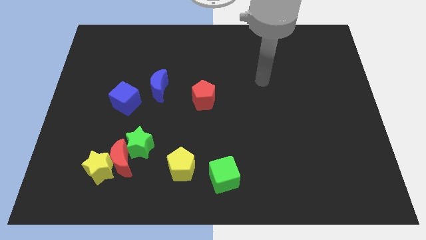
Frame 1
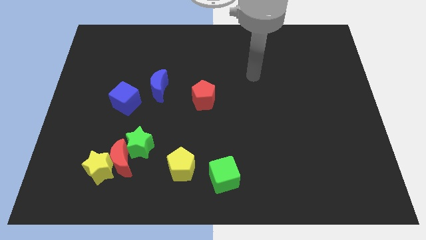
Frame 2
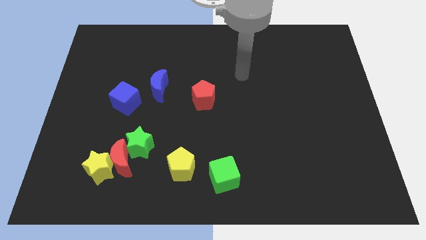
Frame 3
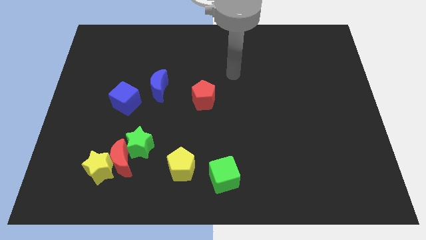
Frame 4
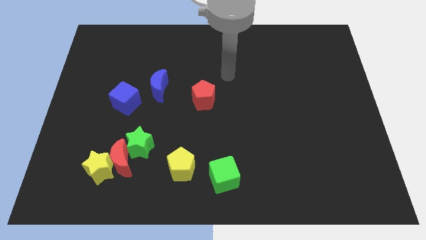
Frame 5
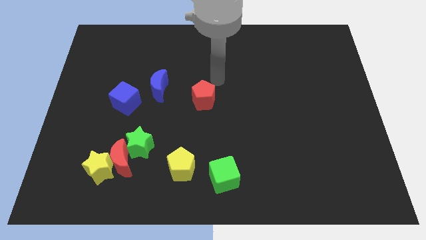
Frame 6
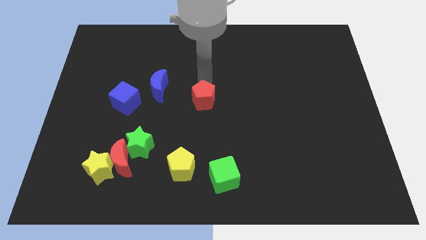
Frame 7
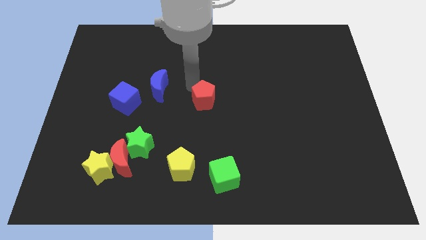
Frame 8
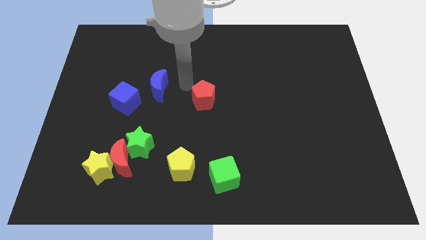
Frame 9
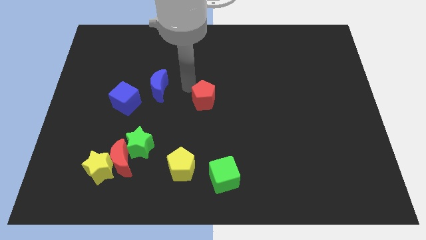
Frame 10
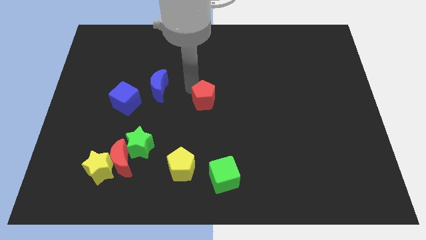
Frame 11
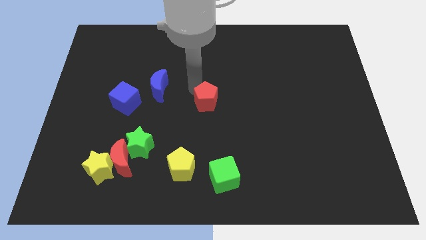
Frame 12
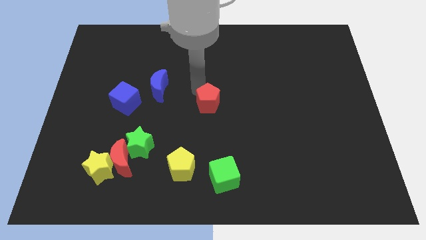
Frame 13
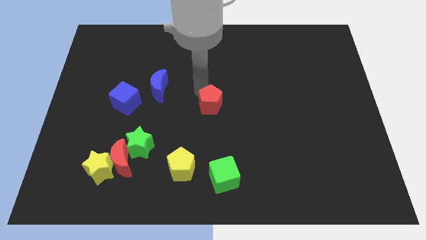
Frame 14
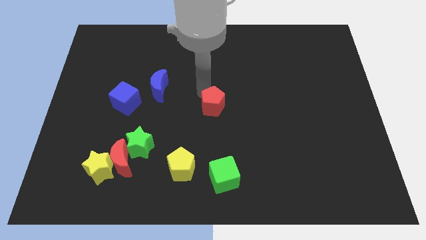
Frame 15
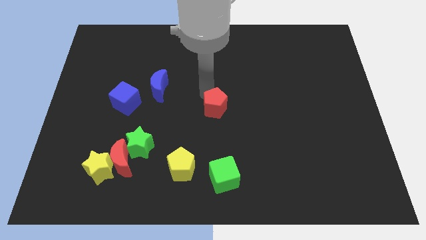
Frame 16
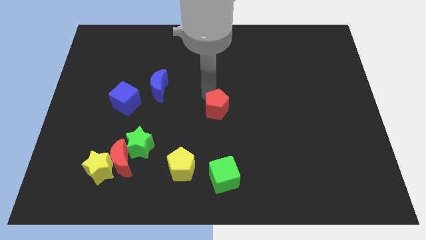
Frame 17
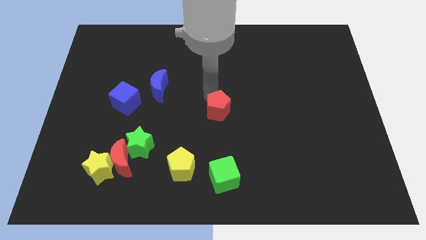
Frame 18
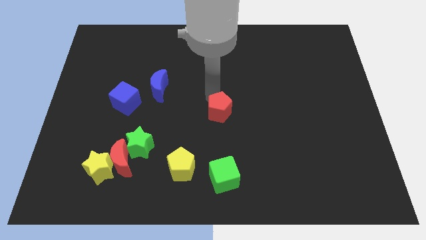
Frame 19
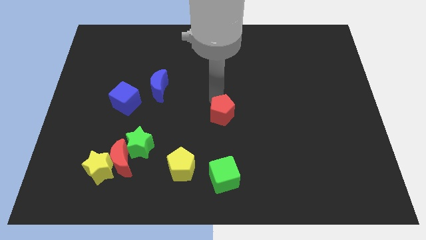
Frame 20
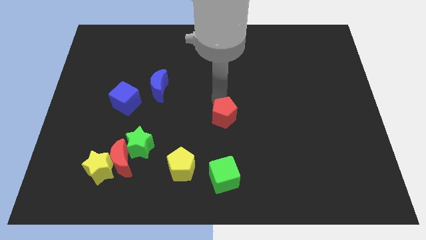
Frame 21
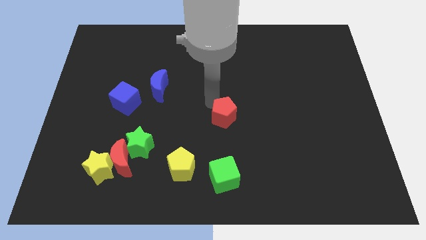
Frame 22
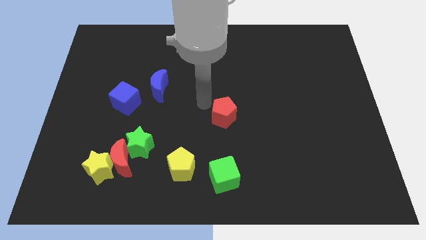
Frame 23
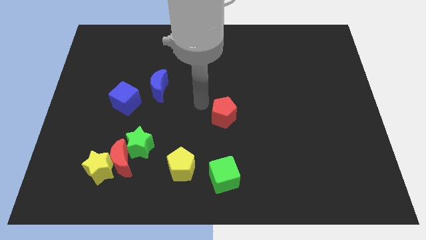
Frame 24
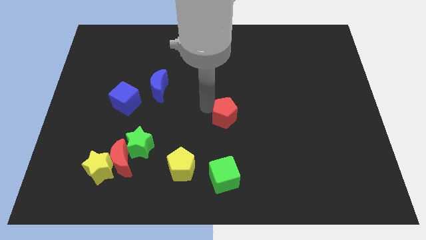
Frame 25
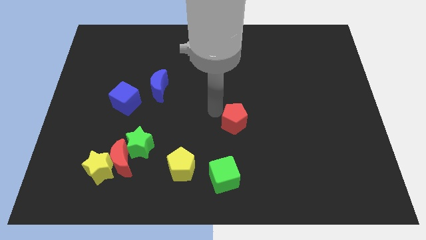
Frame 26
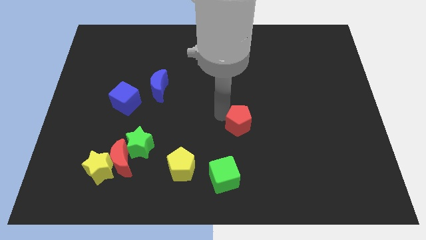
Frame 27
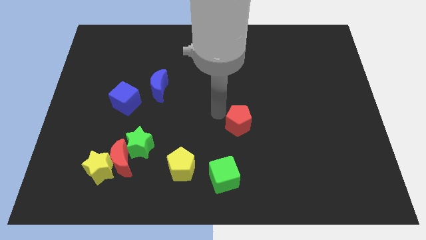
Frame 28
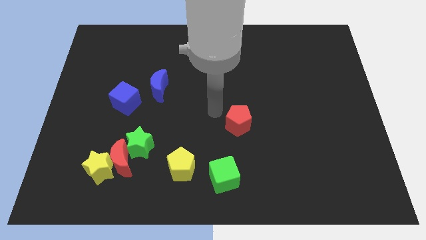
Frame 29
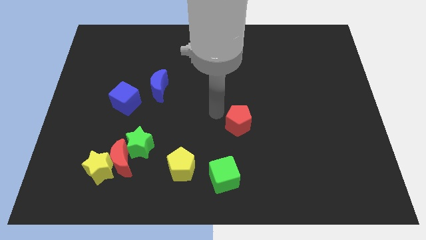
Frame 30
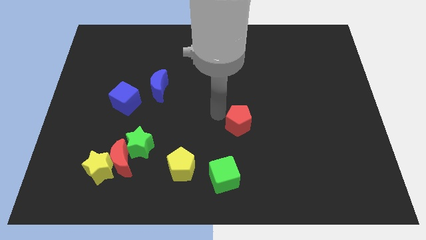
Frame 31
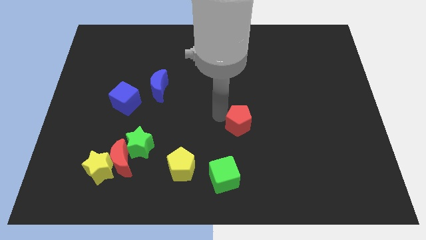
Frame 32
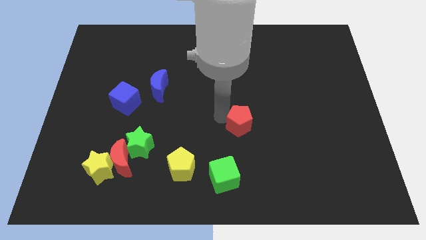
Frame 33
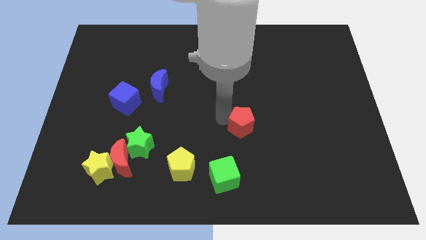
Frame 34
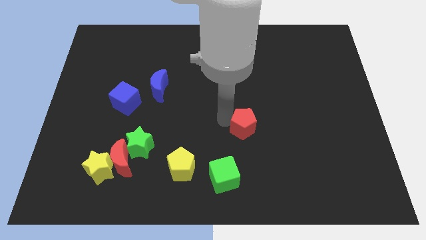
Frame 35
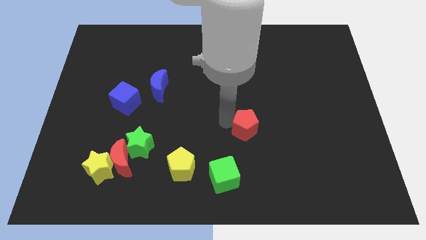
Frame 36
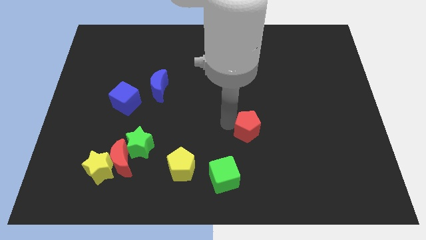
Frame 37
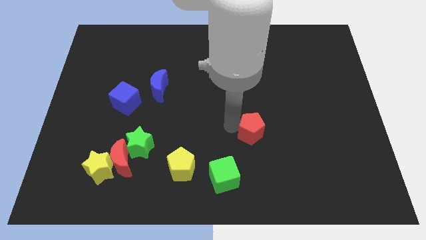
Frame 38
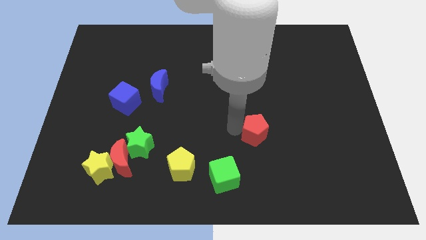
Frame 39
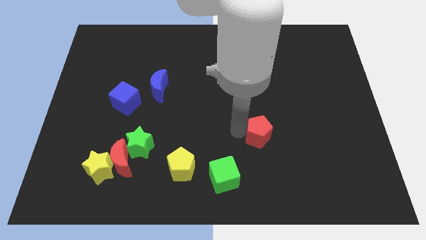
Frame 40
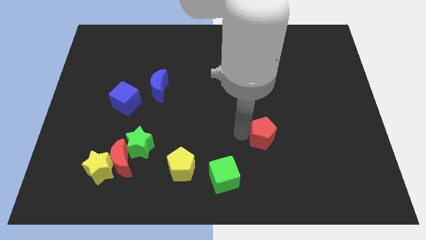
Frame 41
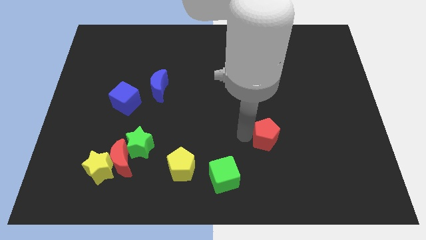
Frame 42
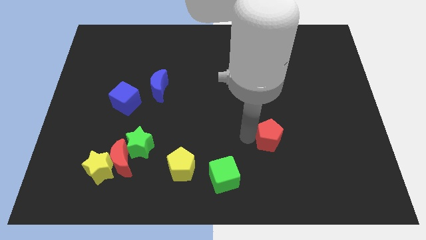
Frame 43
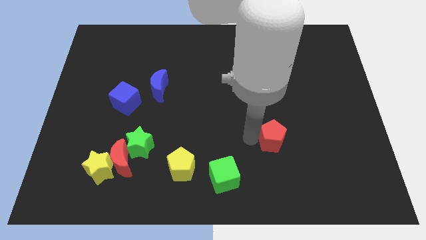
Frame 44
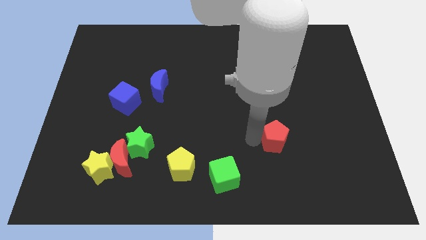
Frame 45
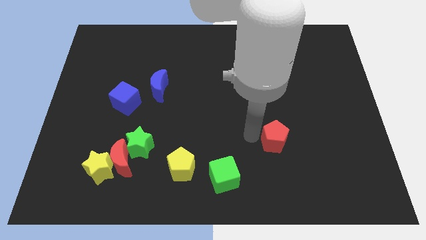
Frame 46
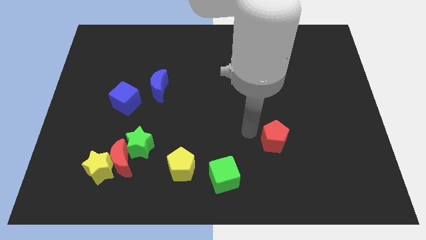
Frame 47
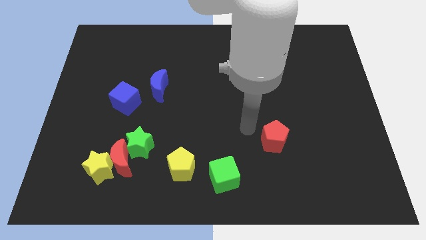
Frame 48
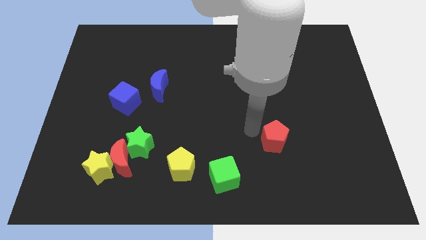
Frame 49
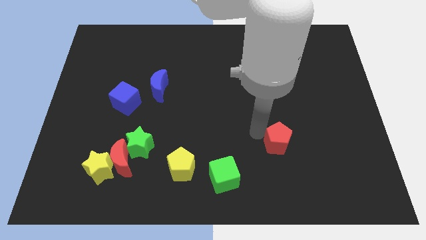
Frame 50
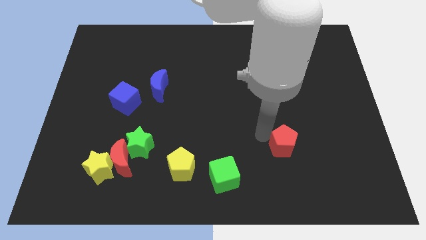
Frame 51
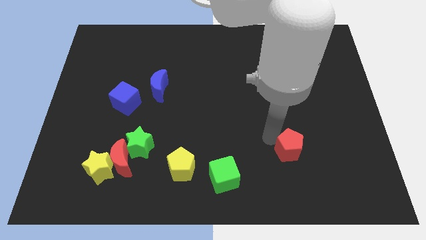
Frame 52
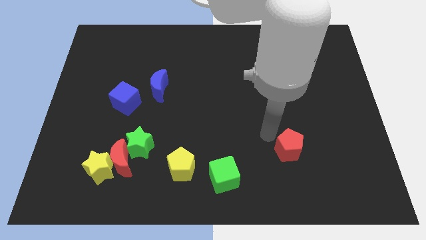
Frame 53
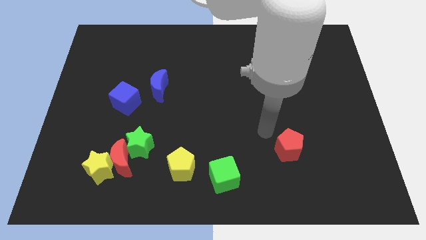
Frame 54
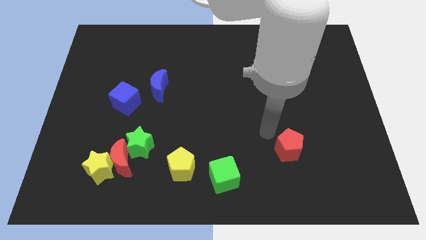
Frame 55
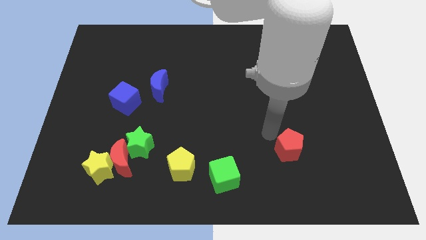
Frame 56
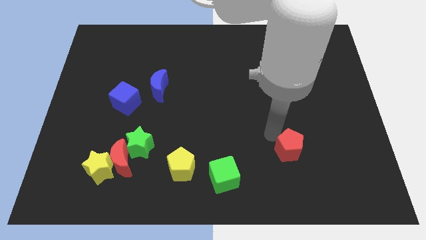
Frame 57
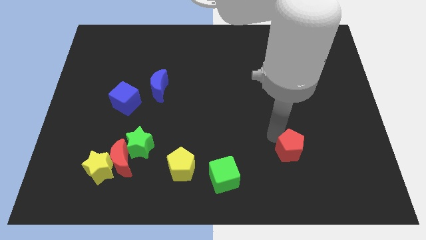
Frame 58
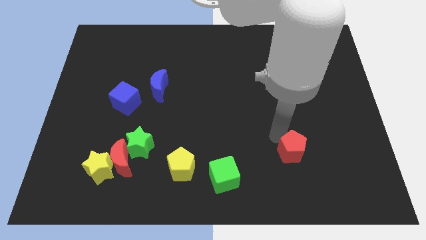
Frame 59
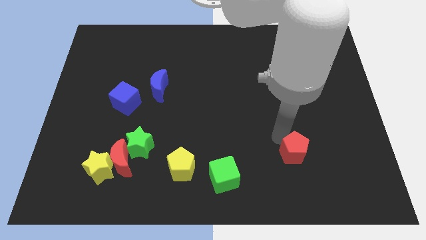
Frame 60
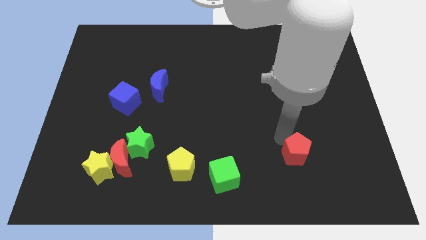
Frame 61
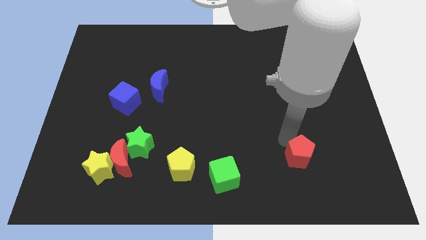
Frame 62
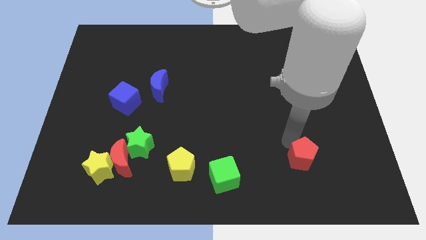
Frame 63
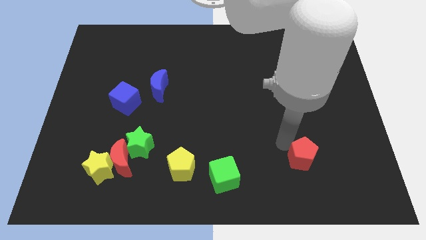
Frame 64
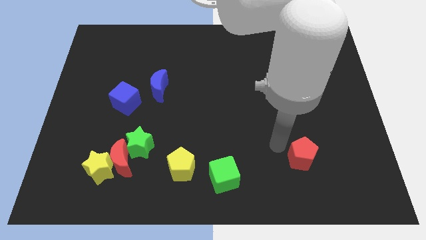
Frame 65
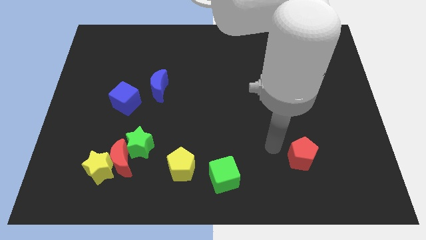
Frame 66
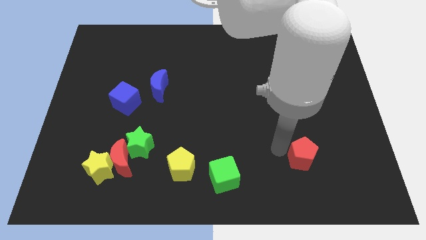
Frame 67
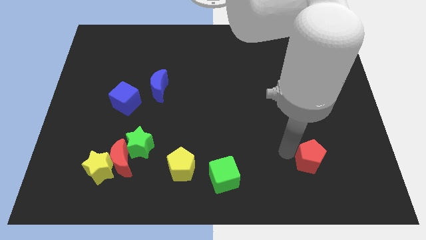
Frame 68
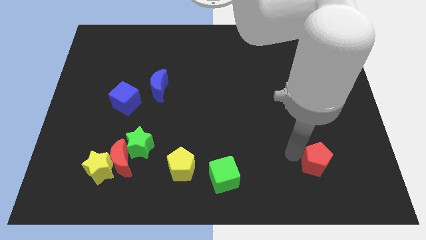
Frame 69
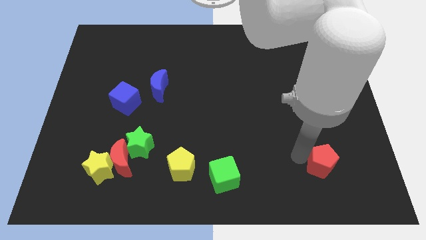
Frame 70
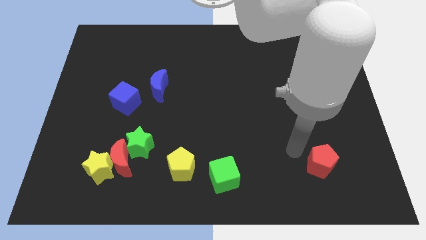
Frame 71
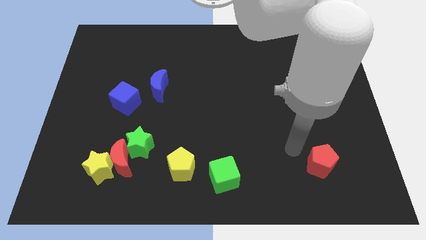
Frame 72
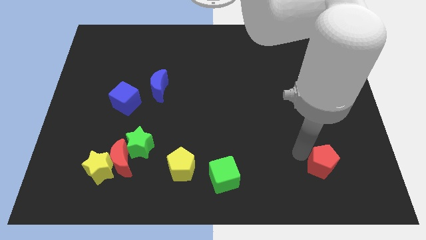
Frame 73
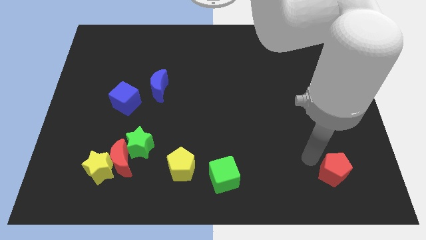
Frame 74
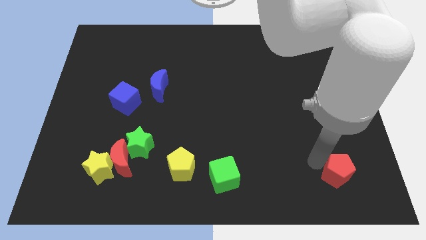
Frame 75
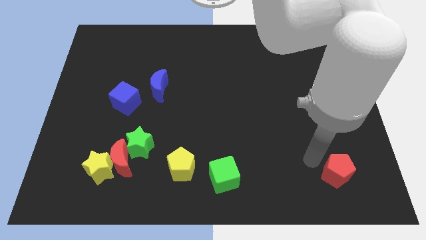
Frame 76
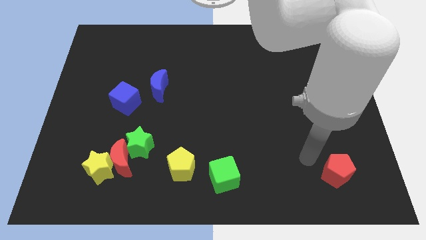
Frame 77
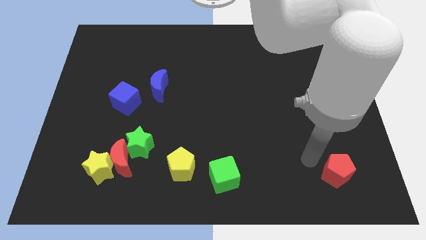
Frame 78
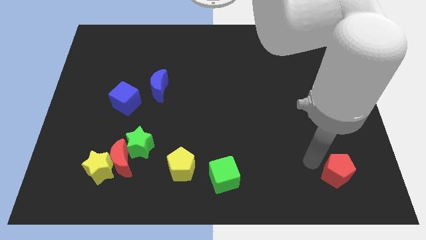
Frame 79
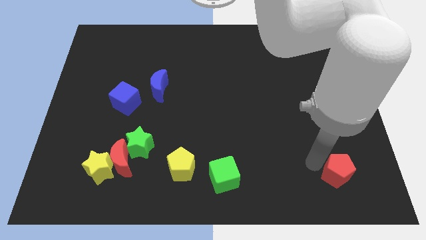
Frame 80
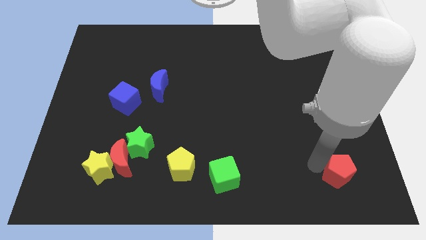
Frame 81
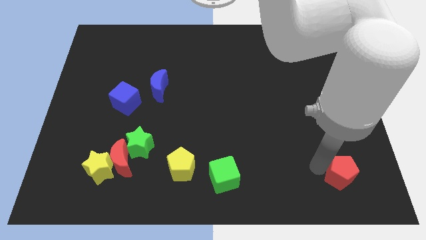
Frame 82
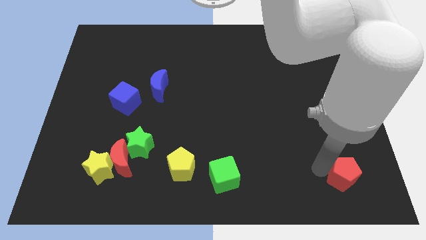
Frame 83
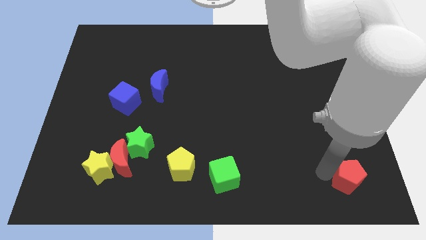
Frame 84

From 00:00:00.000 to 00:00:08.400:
slide the red pentagon to the bottom right of the board
